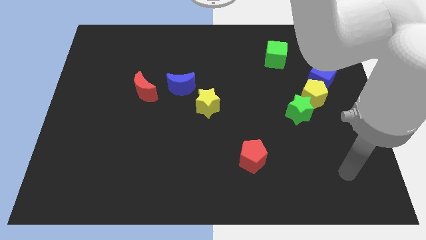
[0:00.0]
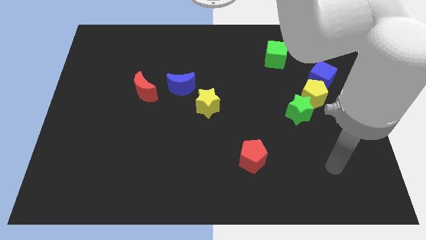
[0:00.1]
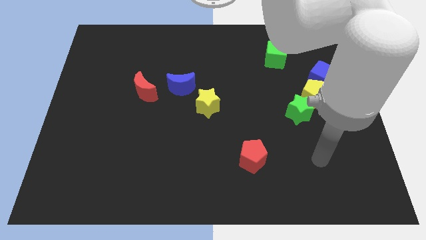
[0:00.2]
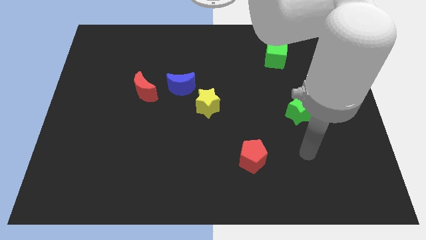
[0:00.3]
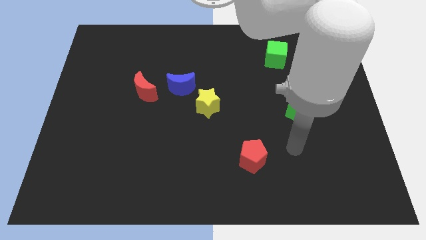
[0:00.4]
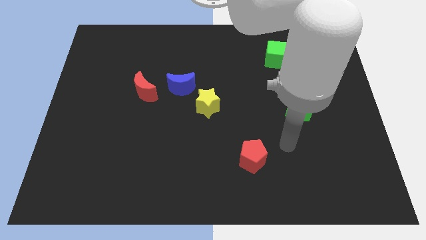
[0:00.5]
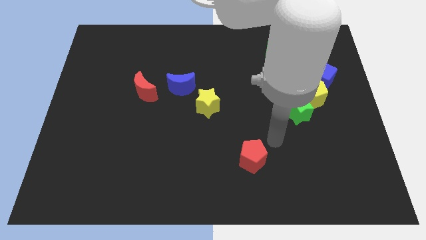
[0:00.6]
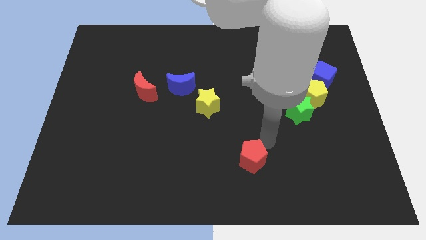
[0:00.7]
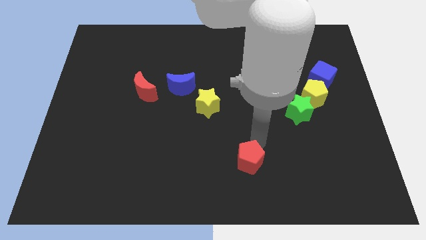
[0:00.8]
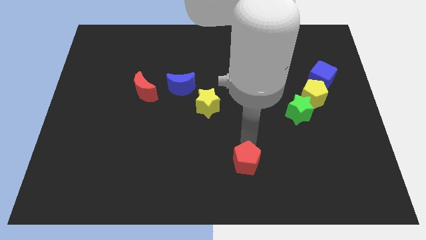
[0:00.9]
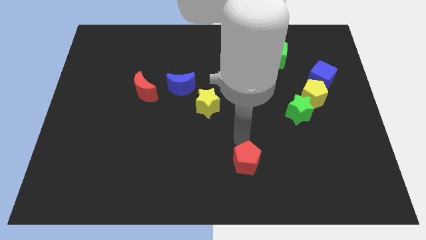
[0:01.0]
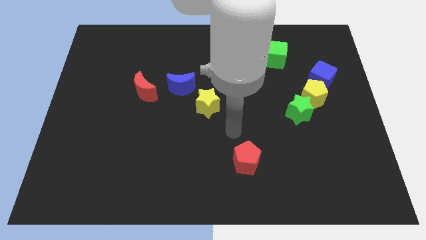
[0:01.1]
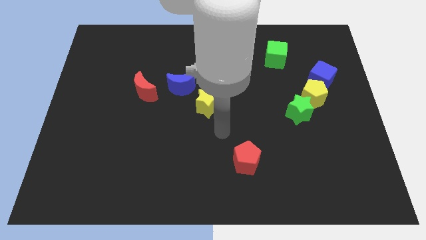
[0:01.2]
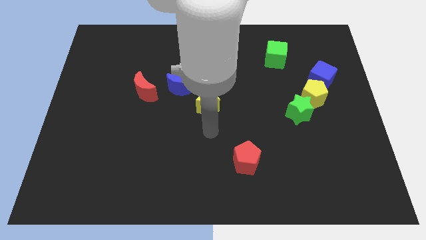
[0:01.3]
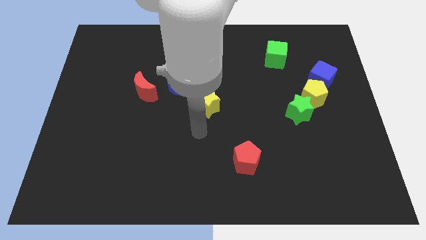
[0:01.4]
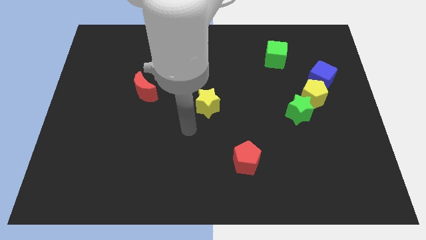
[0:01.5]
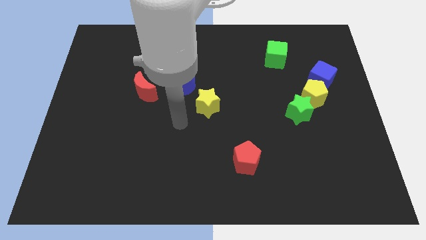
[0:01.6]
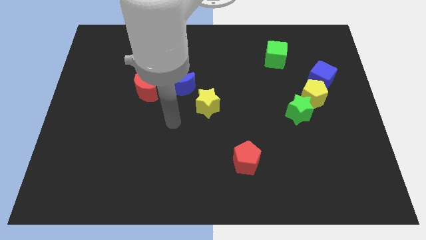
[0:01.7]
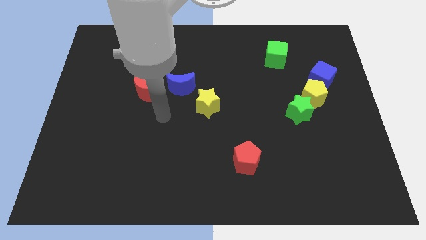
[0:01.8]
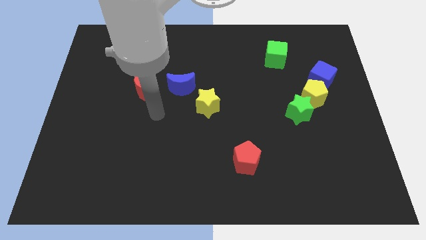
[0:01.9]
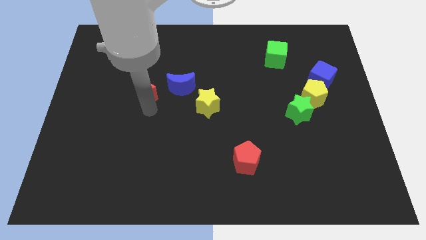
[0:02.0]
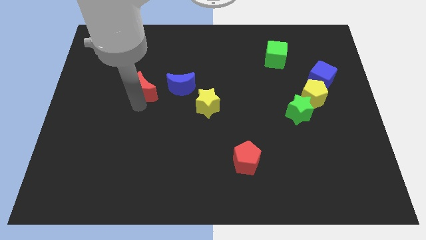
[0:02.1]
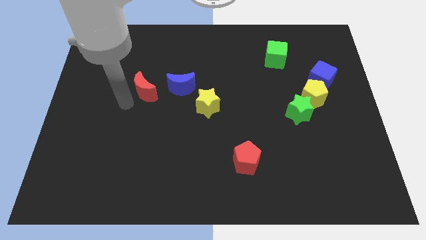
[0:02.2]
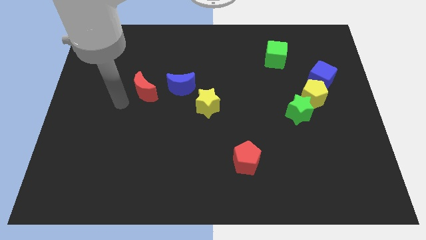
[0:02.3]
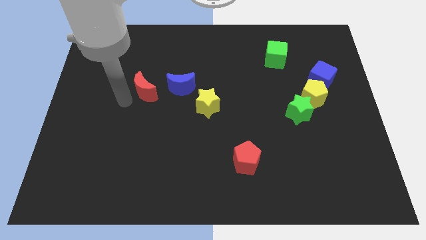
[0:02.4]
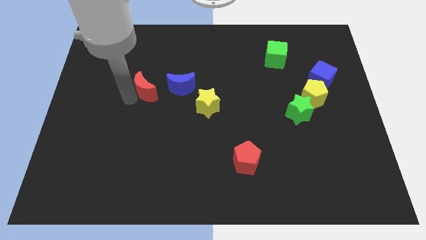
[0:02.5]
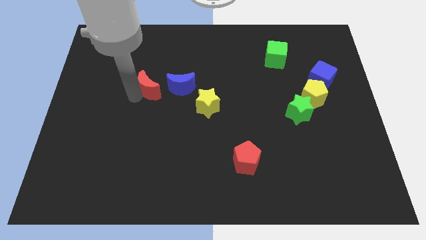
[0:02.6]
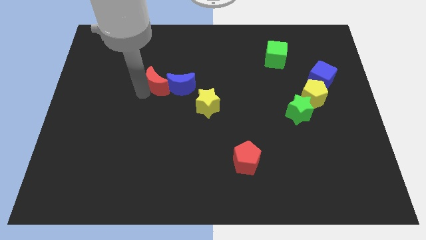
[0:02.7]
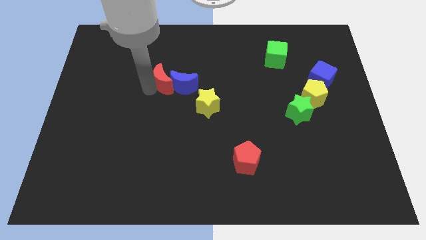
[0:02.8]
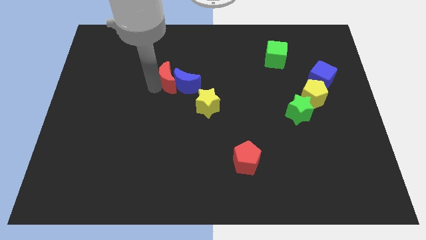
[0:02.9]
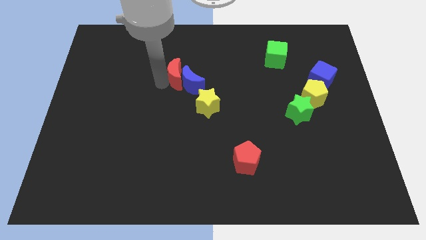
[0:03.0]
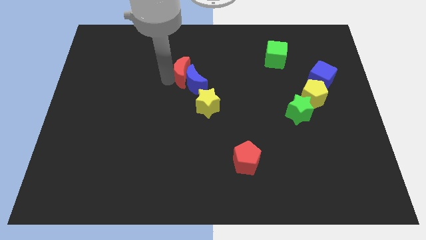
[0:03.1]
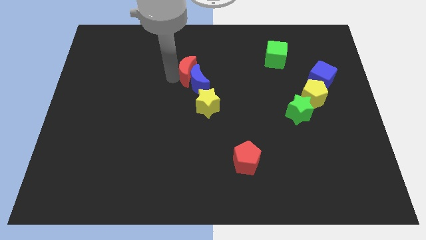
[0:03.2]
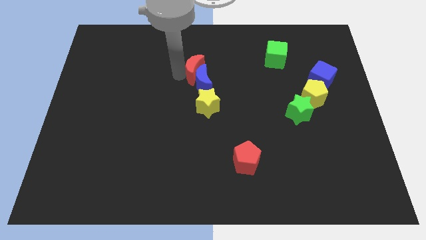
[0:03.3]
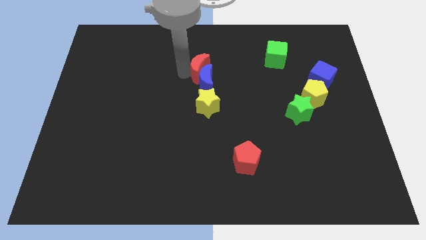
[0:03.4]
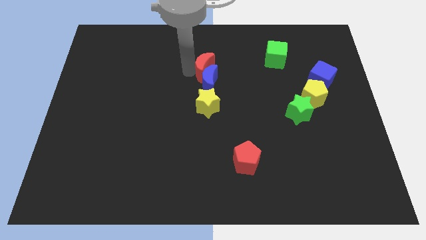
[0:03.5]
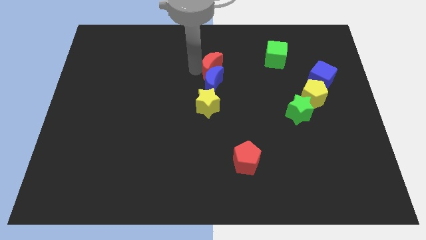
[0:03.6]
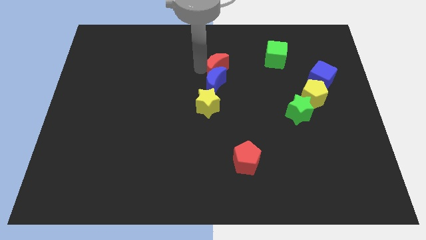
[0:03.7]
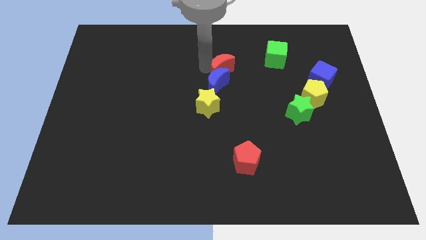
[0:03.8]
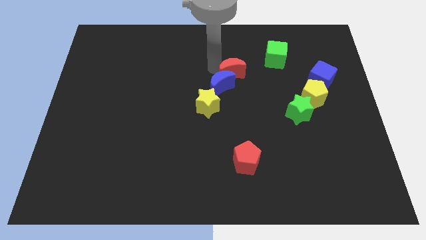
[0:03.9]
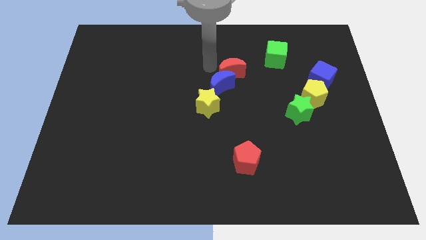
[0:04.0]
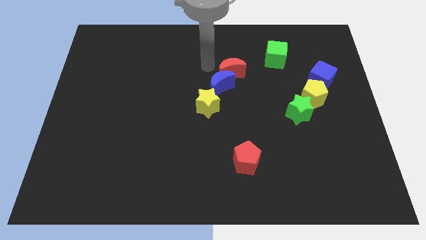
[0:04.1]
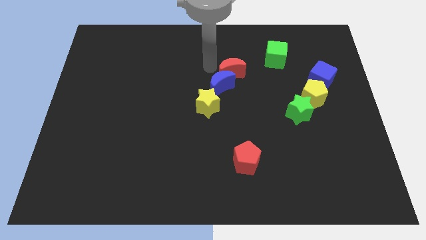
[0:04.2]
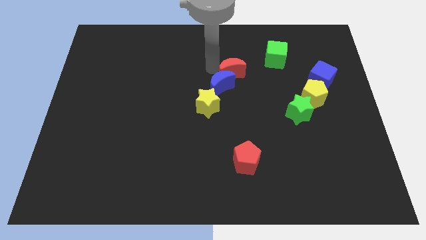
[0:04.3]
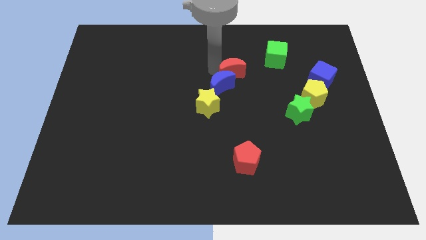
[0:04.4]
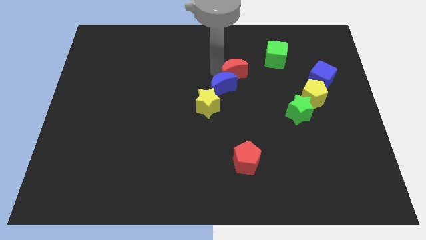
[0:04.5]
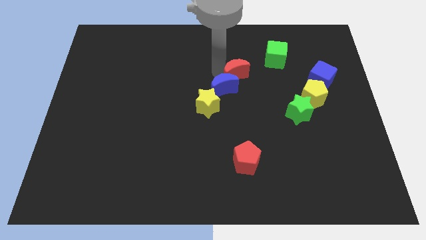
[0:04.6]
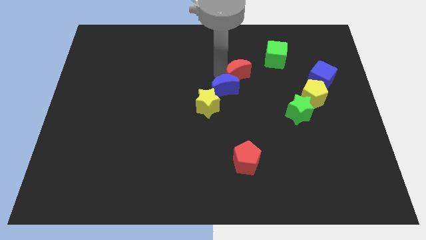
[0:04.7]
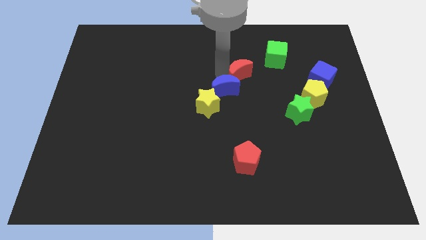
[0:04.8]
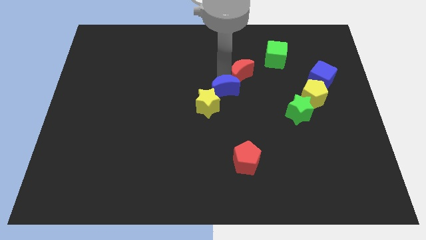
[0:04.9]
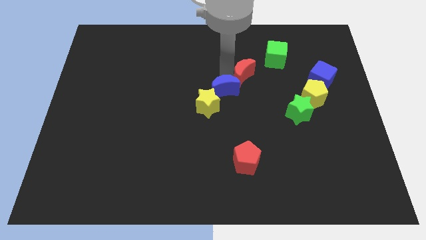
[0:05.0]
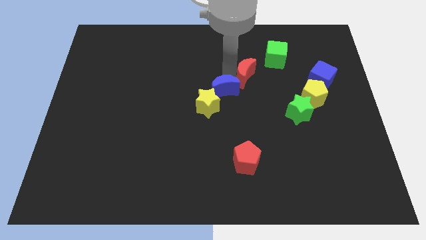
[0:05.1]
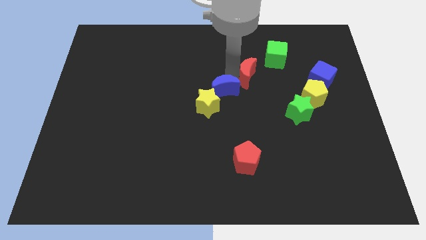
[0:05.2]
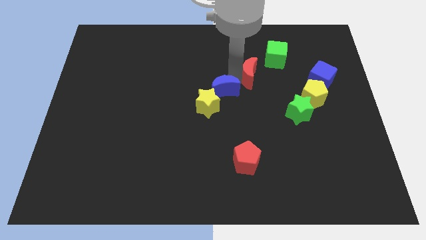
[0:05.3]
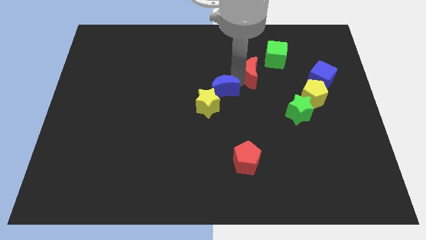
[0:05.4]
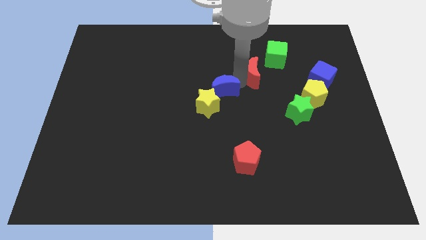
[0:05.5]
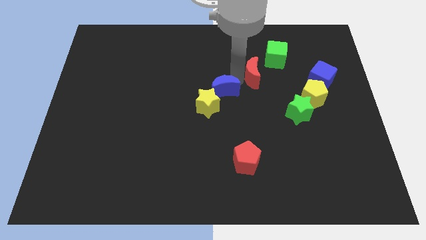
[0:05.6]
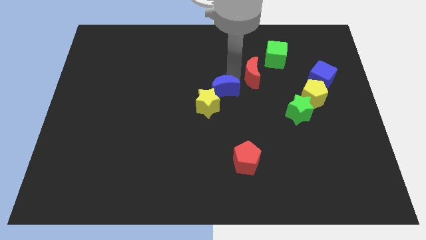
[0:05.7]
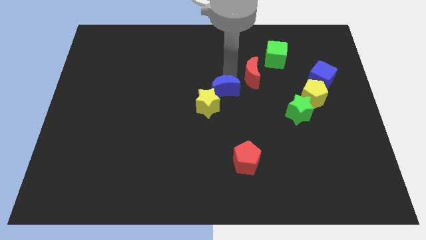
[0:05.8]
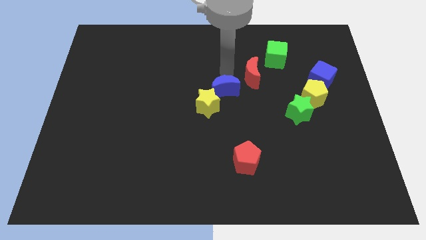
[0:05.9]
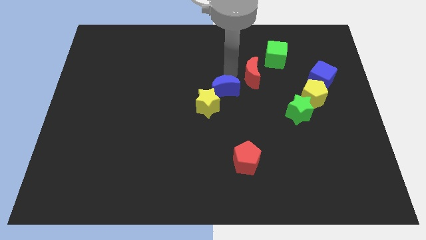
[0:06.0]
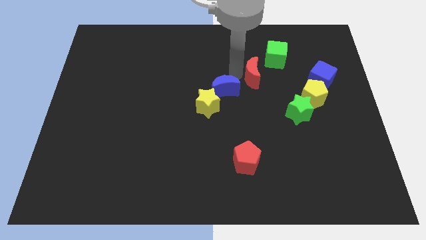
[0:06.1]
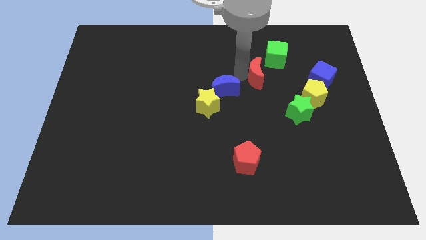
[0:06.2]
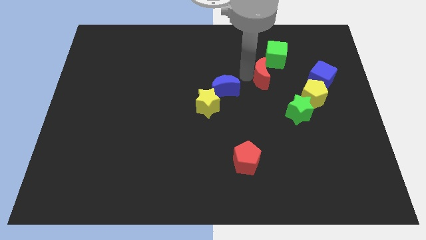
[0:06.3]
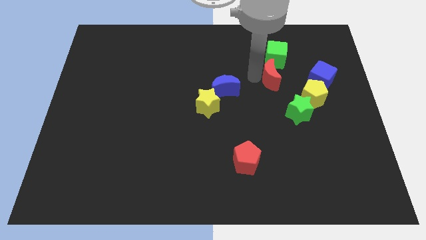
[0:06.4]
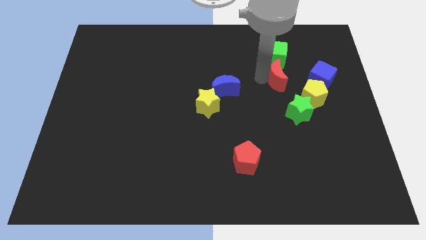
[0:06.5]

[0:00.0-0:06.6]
push the red moon to the top of the green star
